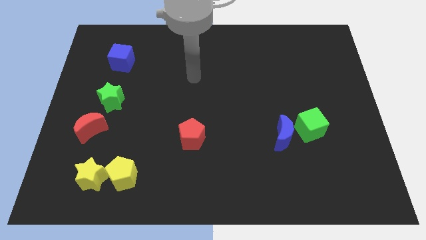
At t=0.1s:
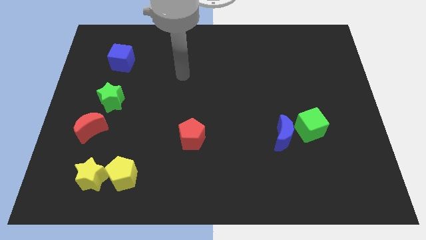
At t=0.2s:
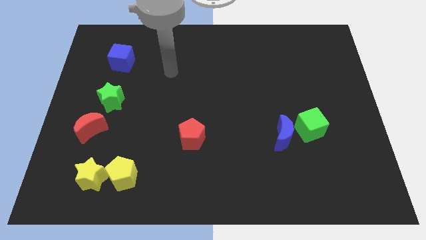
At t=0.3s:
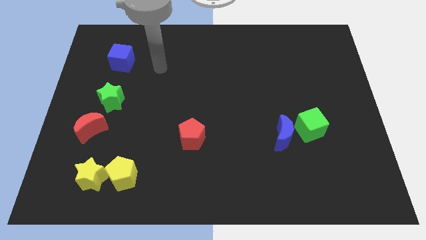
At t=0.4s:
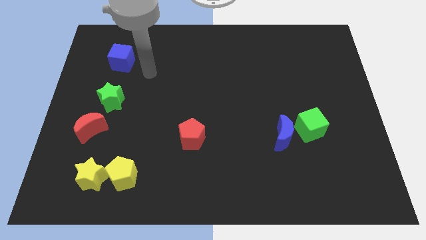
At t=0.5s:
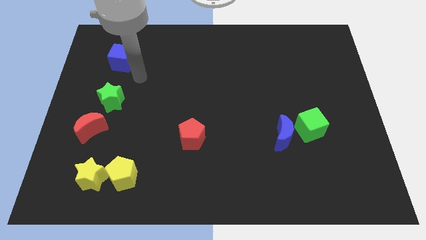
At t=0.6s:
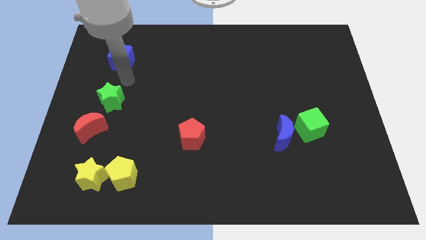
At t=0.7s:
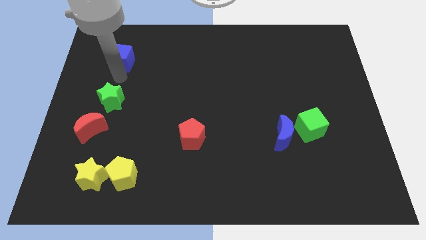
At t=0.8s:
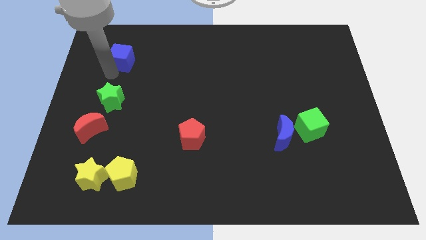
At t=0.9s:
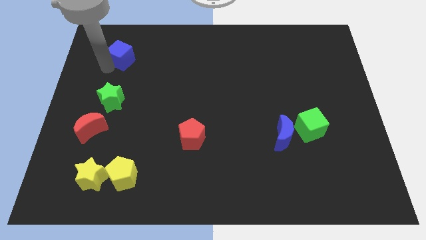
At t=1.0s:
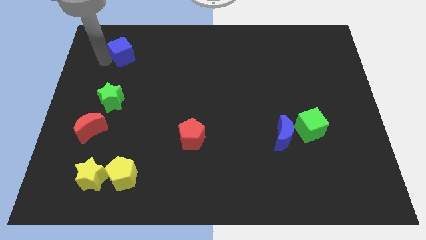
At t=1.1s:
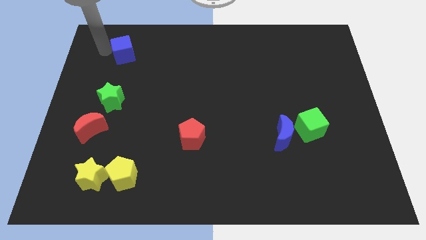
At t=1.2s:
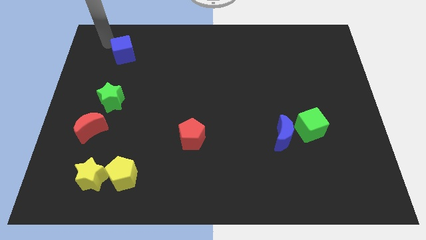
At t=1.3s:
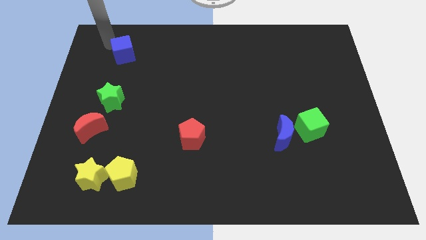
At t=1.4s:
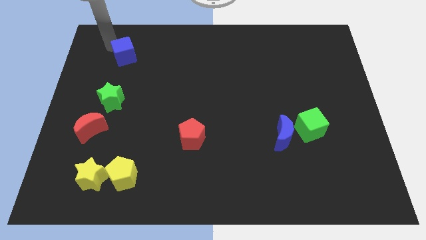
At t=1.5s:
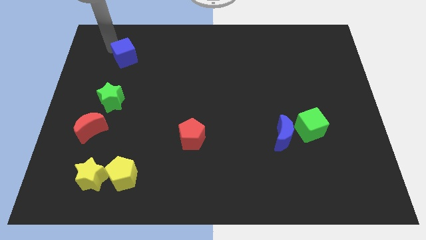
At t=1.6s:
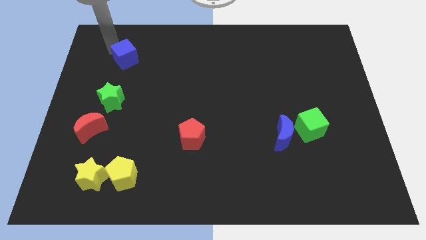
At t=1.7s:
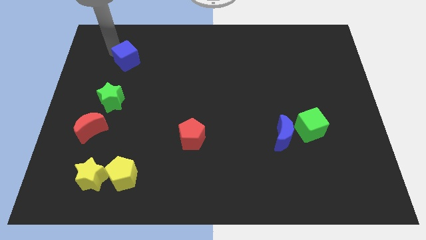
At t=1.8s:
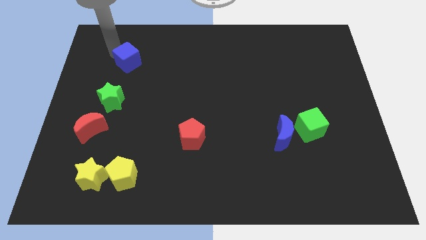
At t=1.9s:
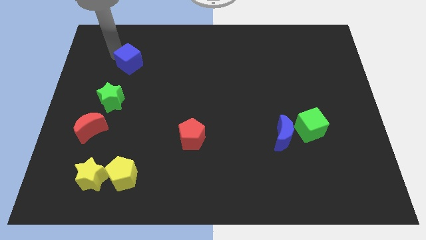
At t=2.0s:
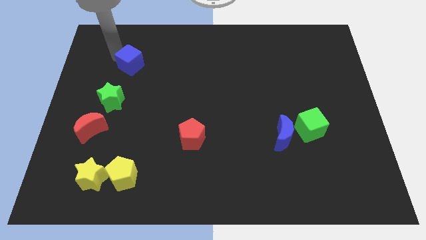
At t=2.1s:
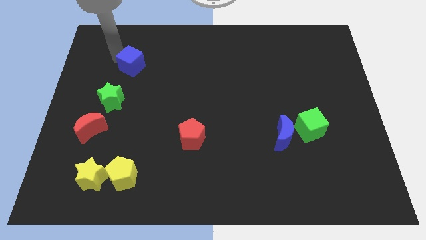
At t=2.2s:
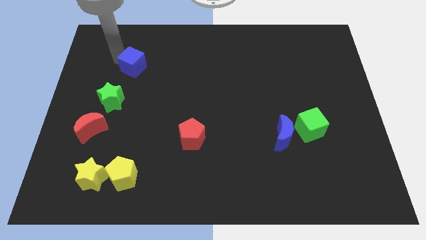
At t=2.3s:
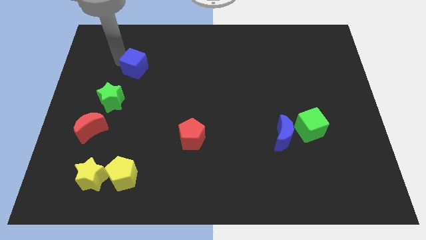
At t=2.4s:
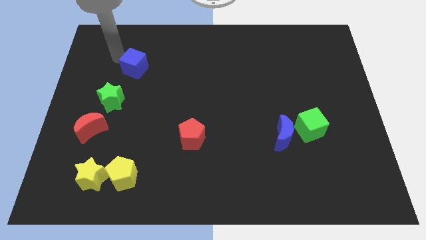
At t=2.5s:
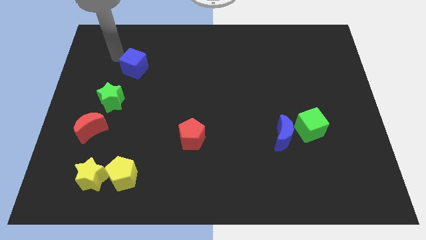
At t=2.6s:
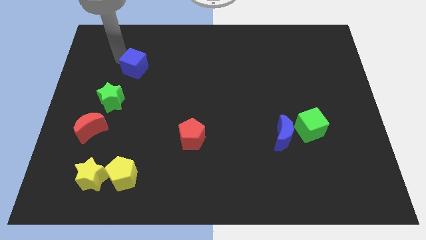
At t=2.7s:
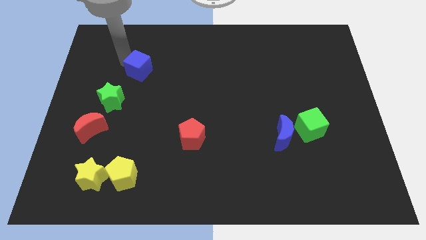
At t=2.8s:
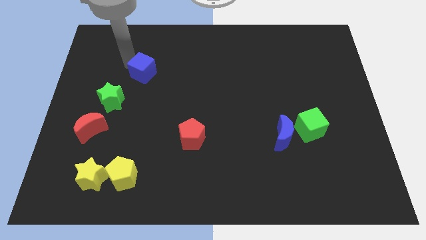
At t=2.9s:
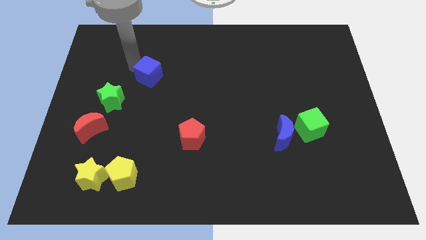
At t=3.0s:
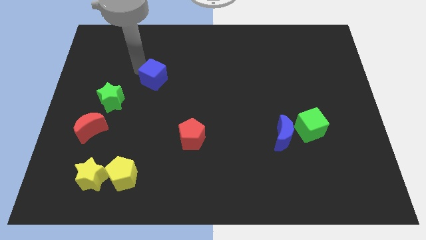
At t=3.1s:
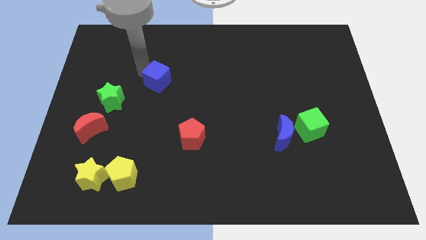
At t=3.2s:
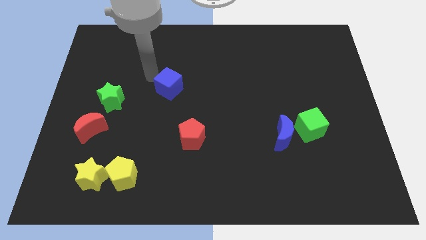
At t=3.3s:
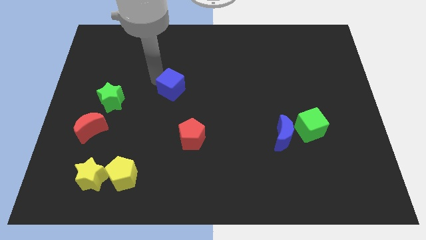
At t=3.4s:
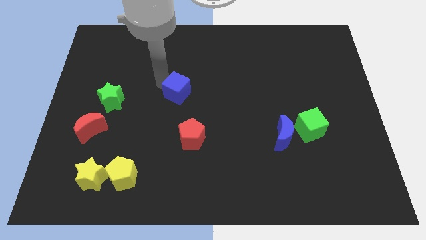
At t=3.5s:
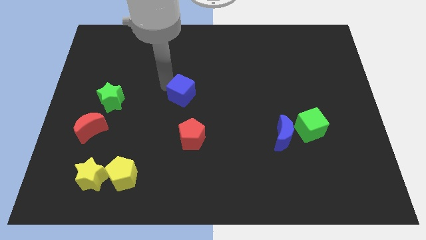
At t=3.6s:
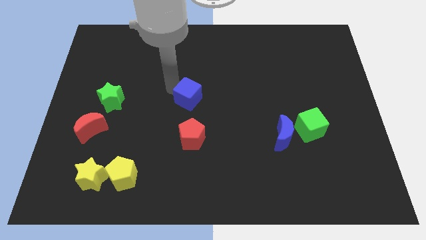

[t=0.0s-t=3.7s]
move the blue cube diagonally down and to the right

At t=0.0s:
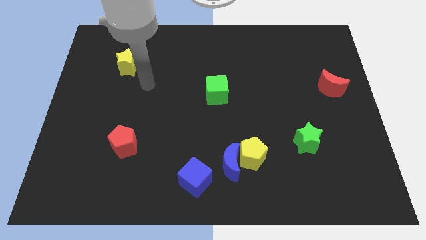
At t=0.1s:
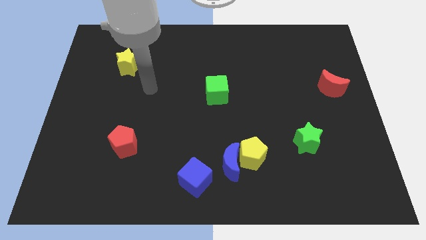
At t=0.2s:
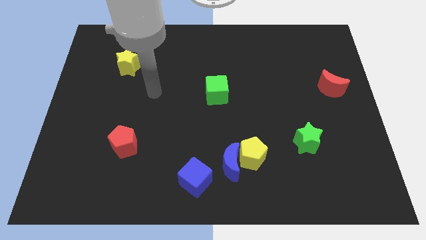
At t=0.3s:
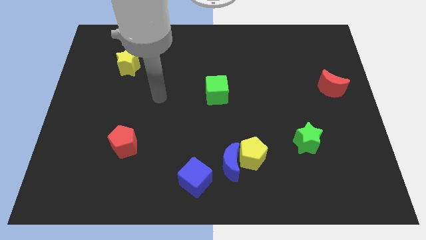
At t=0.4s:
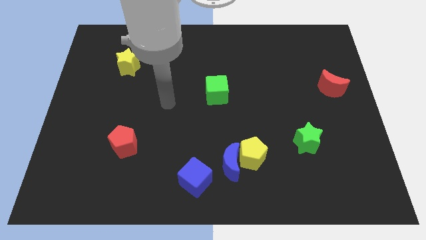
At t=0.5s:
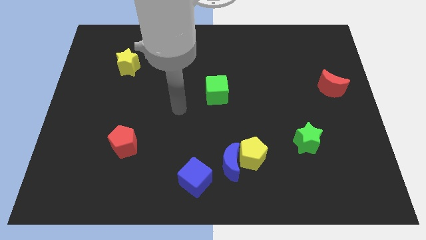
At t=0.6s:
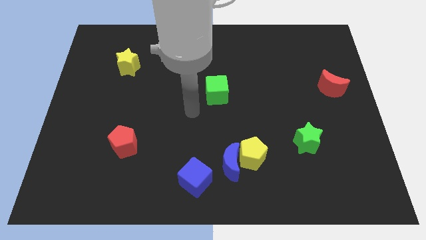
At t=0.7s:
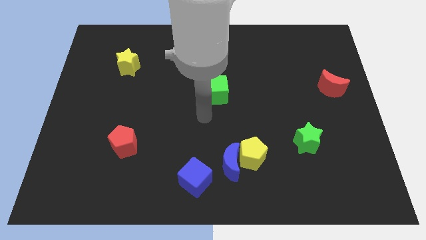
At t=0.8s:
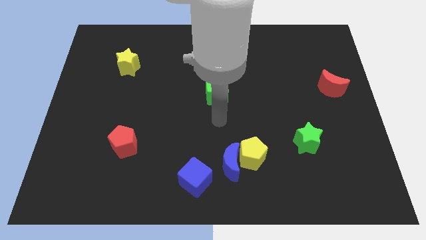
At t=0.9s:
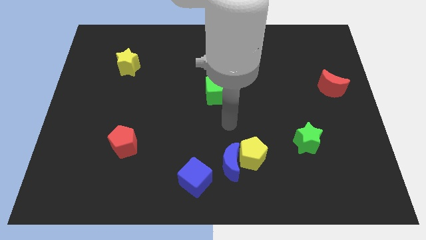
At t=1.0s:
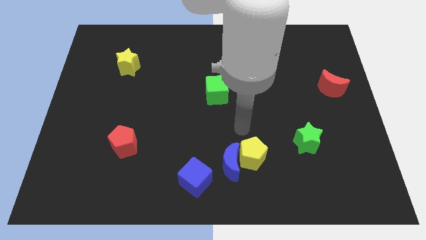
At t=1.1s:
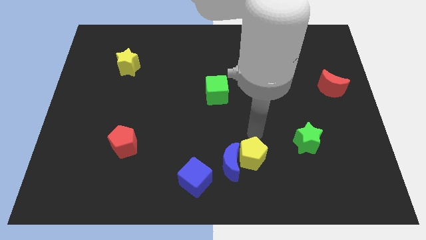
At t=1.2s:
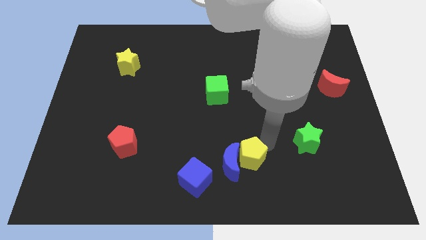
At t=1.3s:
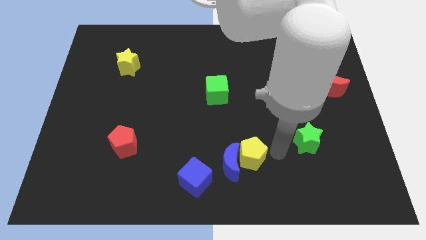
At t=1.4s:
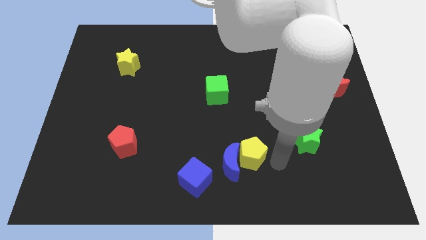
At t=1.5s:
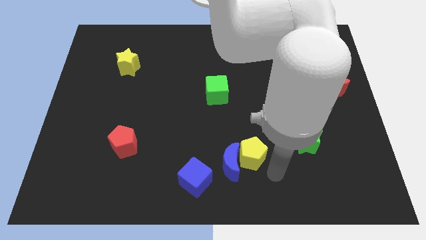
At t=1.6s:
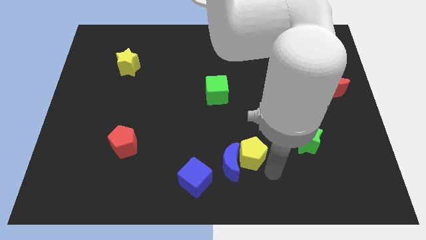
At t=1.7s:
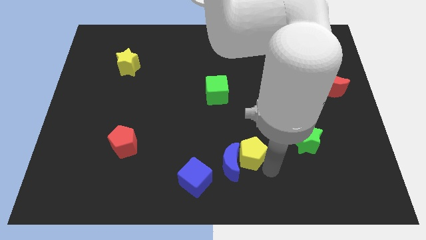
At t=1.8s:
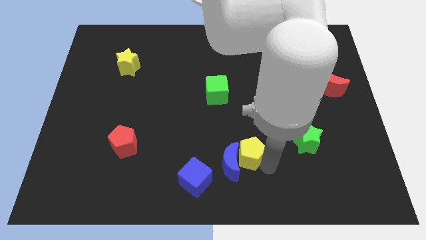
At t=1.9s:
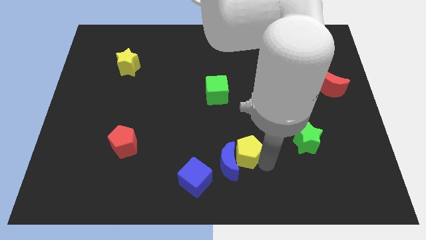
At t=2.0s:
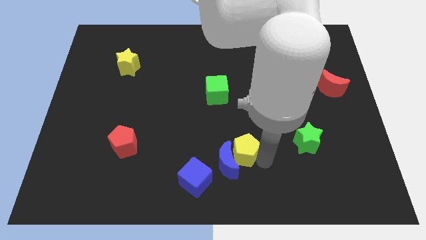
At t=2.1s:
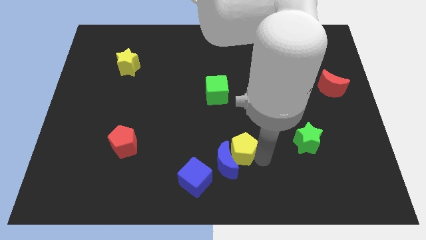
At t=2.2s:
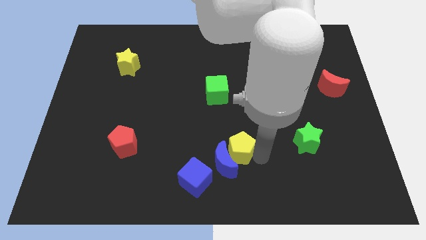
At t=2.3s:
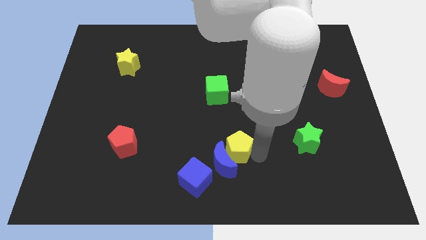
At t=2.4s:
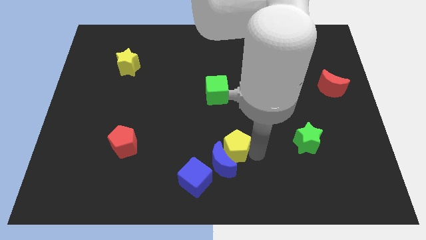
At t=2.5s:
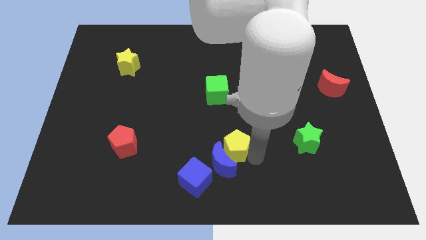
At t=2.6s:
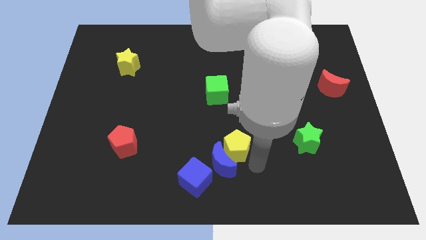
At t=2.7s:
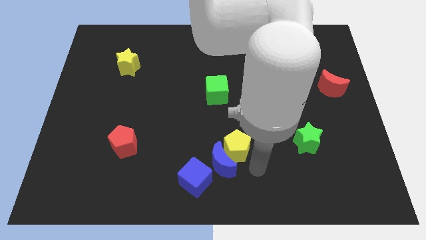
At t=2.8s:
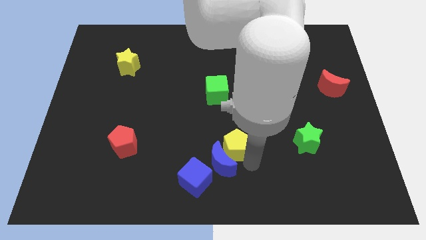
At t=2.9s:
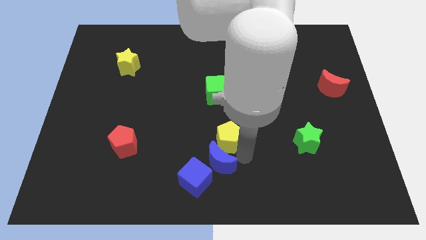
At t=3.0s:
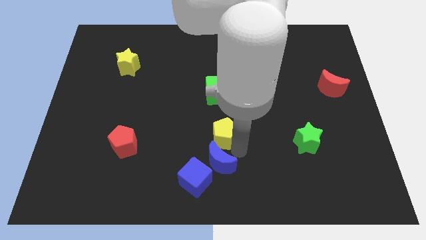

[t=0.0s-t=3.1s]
slide the yellow pentagon somewhat upwards and to the left diagonally

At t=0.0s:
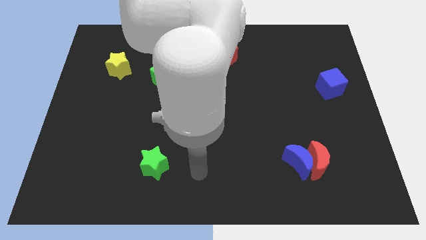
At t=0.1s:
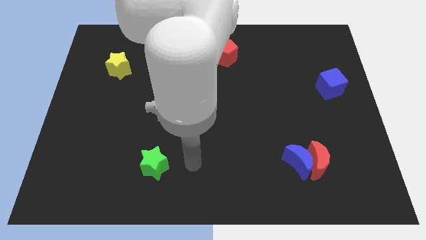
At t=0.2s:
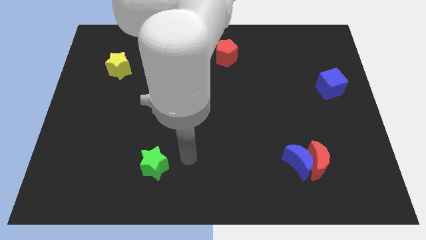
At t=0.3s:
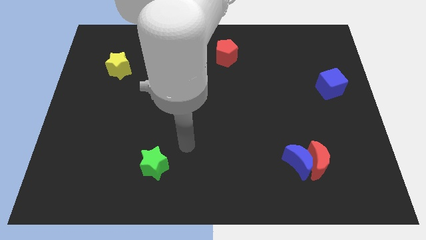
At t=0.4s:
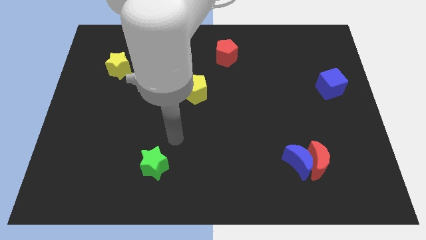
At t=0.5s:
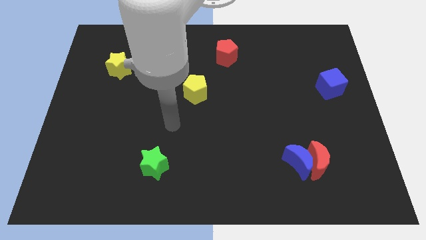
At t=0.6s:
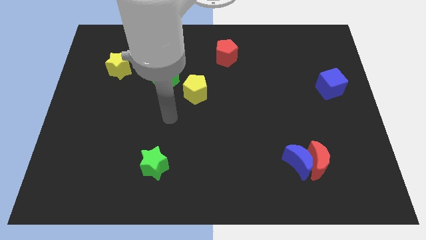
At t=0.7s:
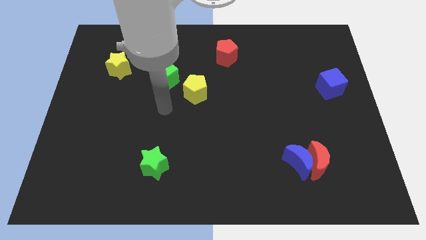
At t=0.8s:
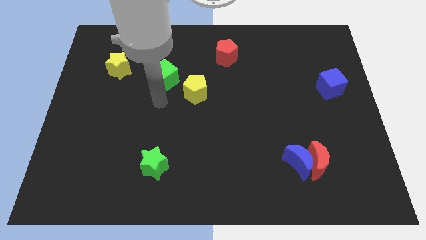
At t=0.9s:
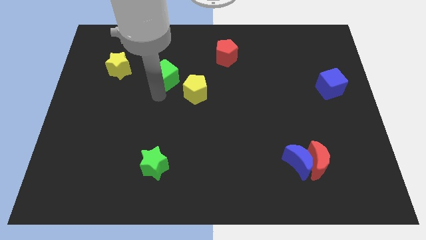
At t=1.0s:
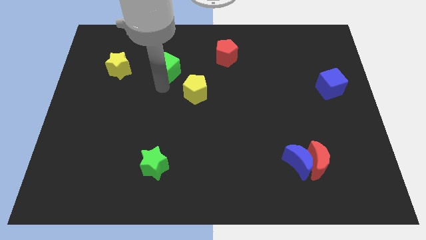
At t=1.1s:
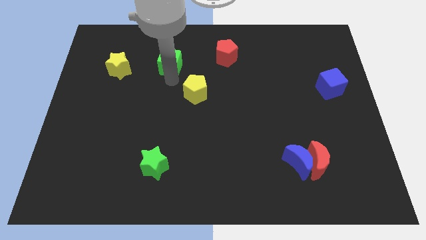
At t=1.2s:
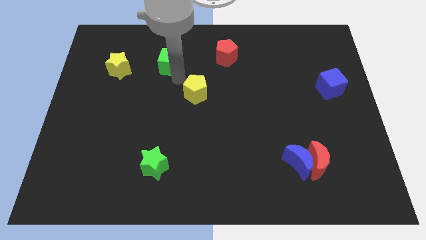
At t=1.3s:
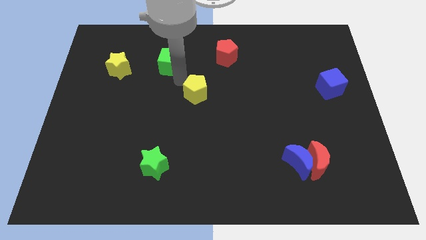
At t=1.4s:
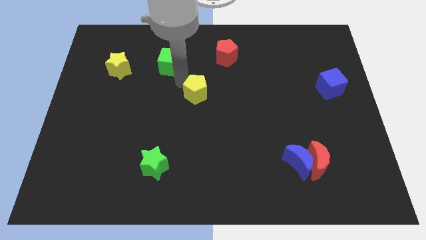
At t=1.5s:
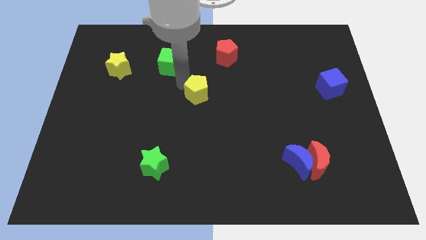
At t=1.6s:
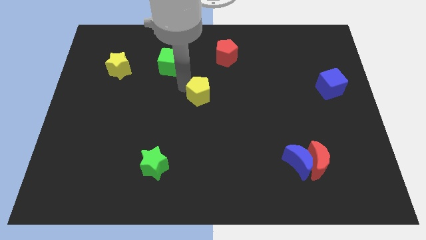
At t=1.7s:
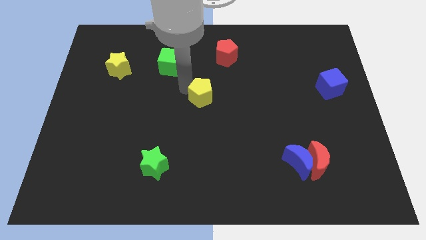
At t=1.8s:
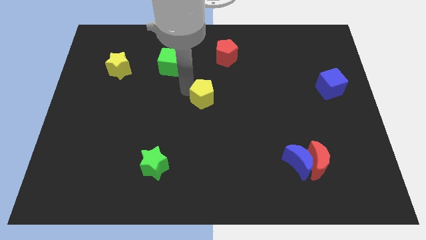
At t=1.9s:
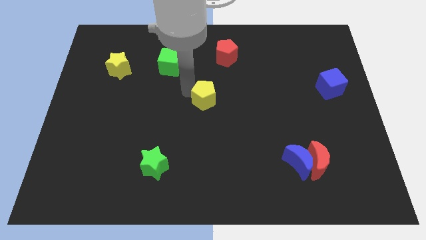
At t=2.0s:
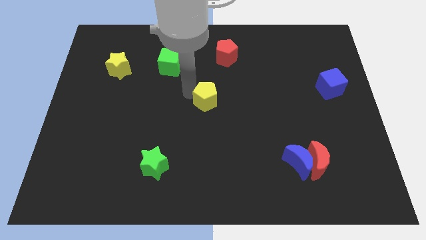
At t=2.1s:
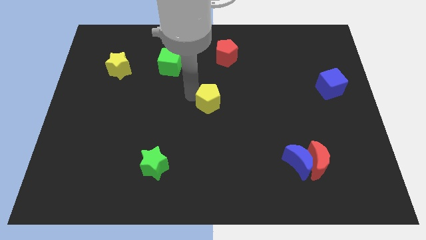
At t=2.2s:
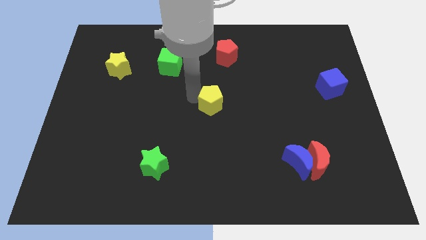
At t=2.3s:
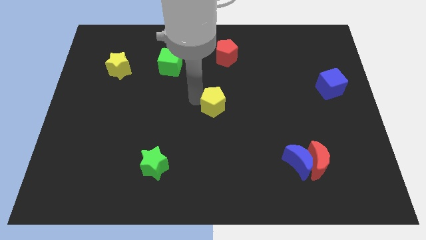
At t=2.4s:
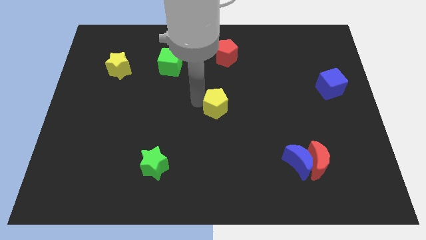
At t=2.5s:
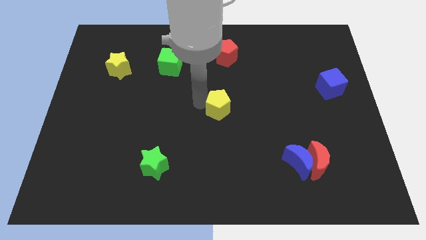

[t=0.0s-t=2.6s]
slide the yellow pentagon somewhat downwards and then right
